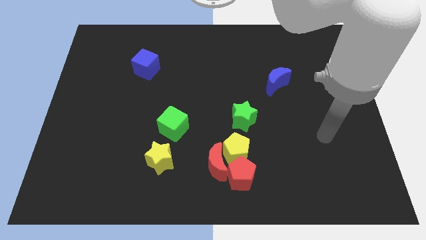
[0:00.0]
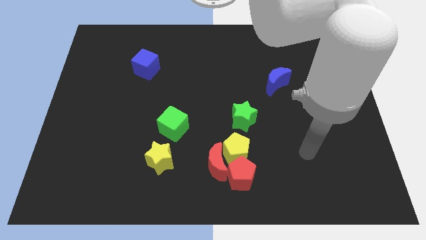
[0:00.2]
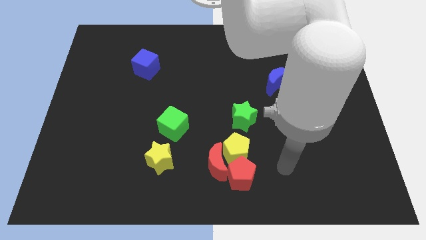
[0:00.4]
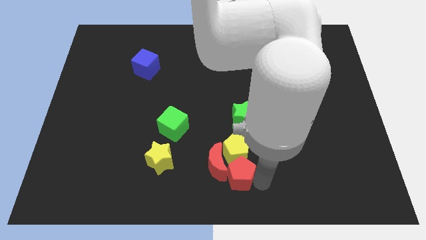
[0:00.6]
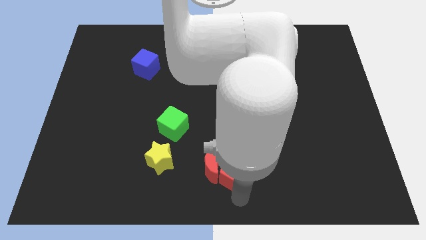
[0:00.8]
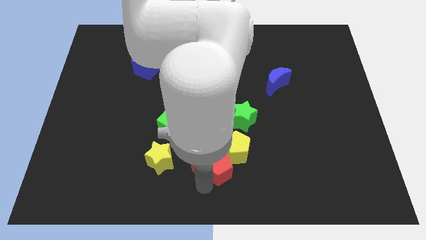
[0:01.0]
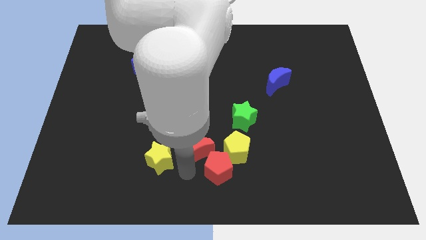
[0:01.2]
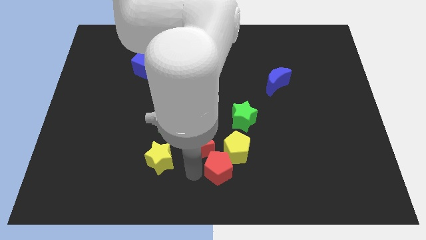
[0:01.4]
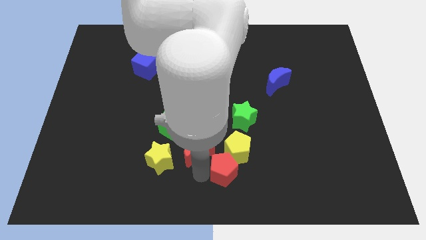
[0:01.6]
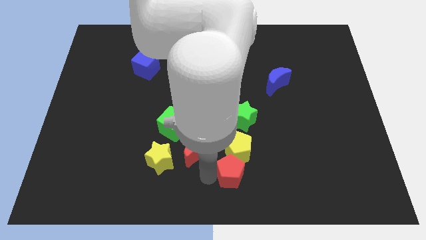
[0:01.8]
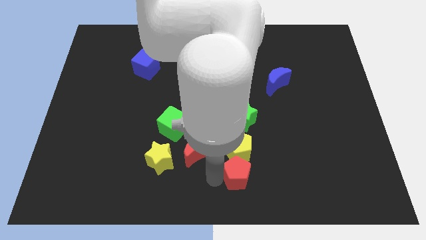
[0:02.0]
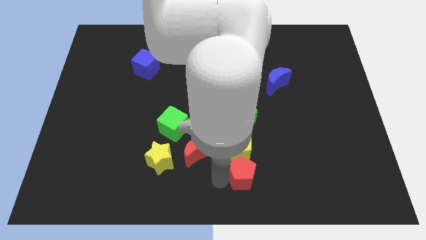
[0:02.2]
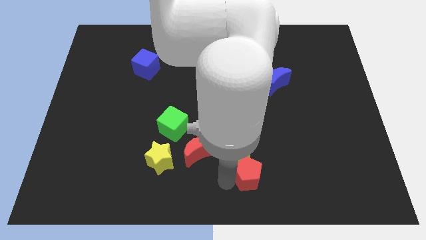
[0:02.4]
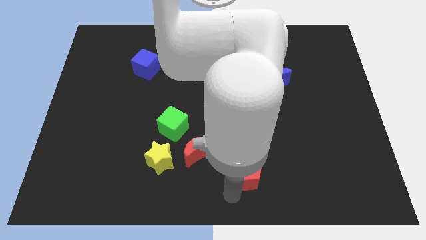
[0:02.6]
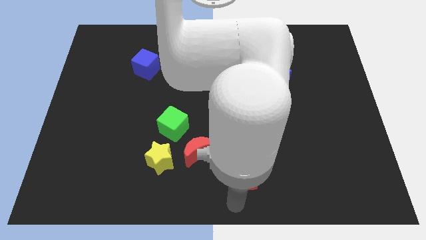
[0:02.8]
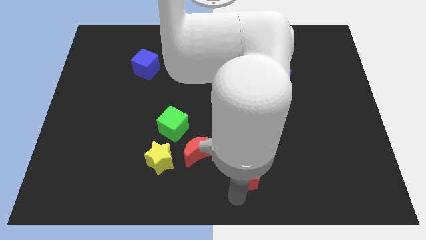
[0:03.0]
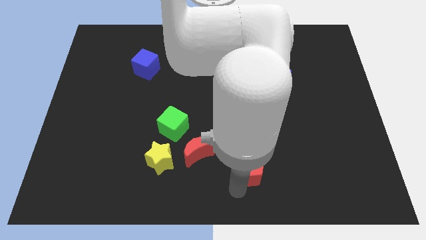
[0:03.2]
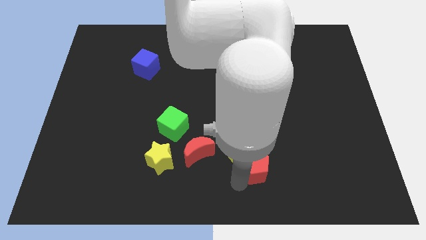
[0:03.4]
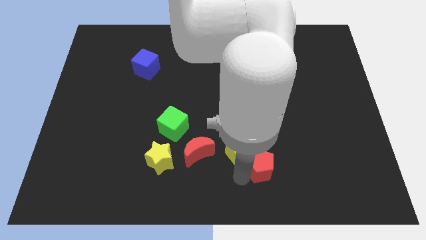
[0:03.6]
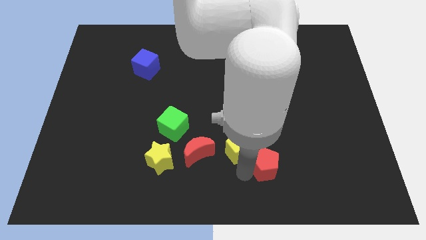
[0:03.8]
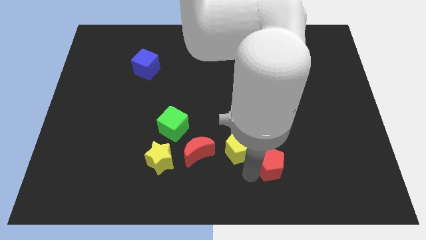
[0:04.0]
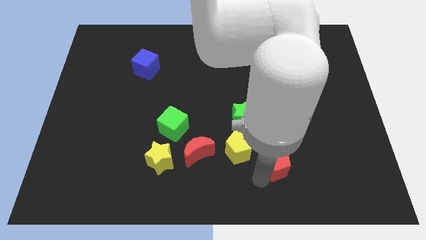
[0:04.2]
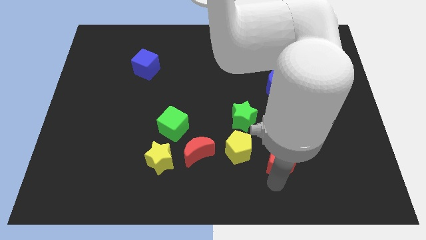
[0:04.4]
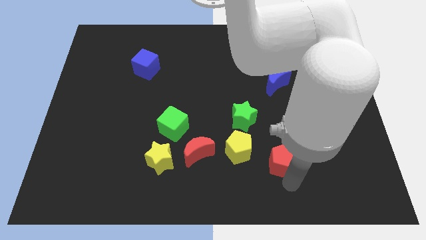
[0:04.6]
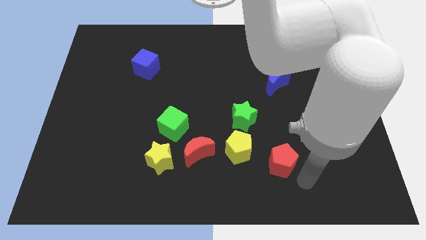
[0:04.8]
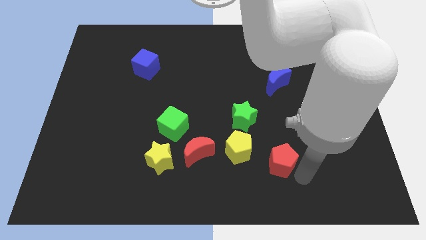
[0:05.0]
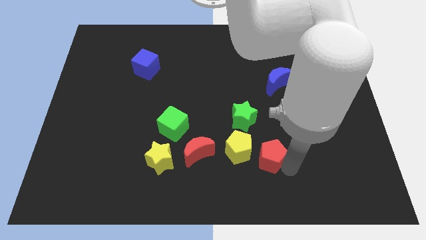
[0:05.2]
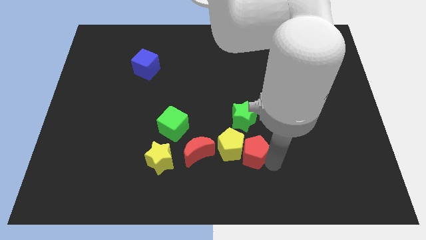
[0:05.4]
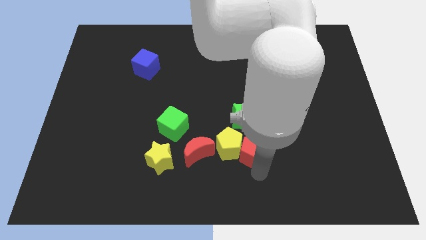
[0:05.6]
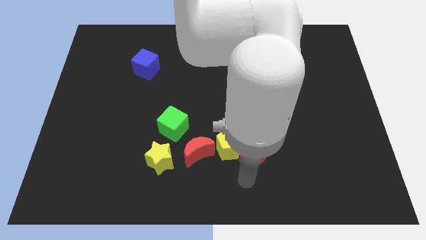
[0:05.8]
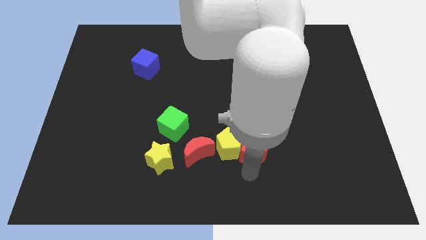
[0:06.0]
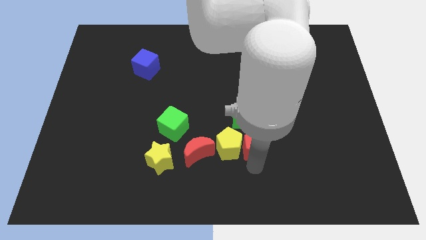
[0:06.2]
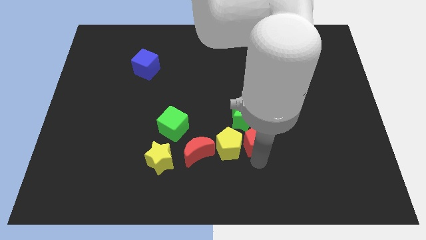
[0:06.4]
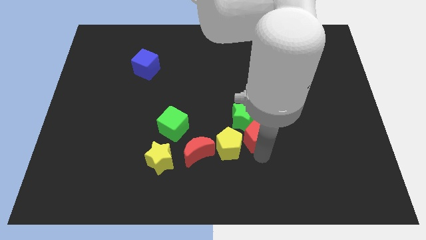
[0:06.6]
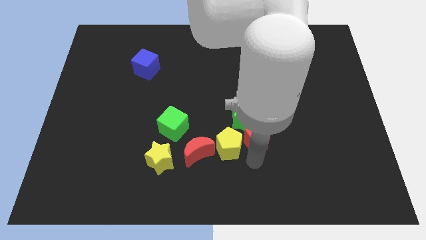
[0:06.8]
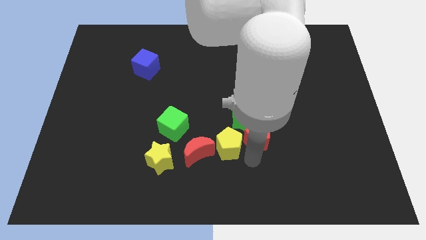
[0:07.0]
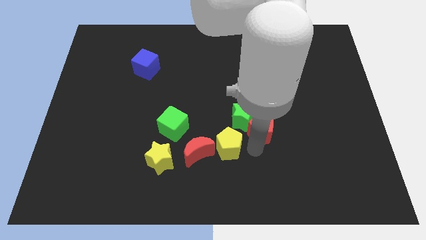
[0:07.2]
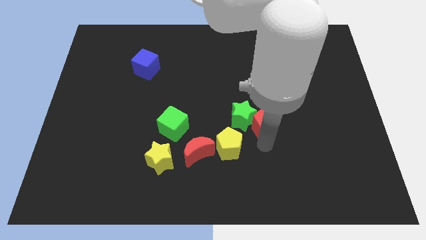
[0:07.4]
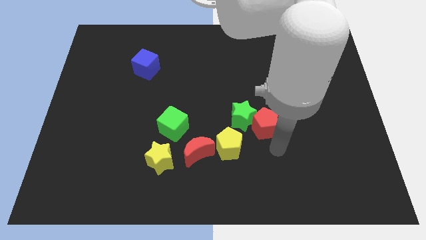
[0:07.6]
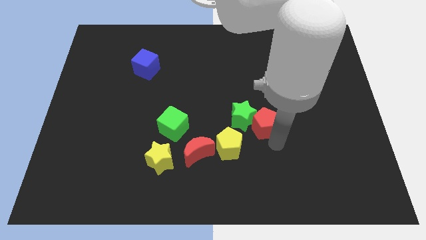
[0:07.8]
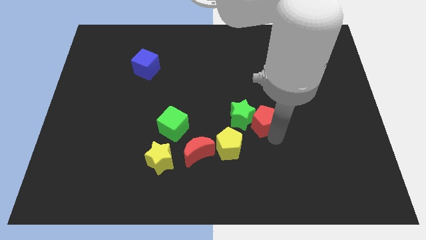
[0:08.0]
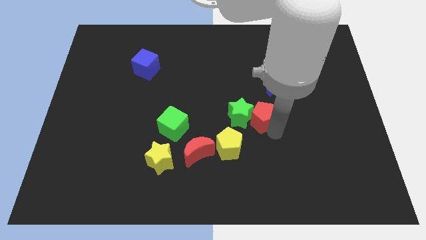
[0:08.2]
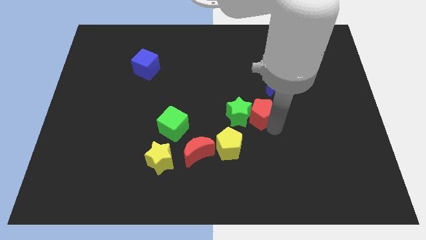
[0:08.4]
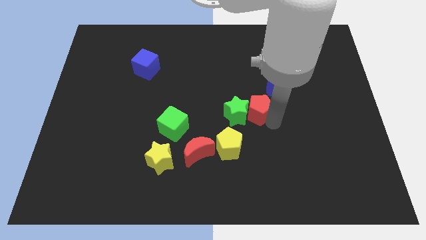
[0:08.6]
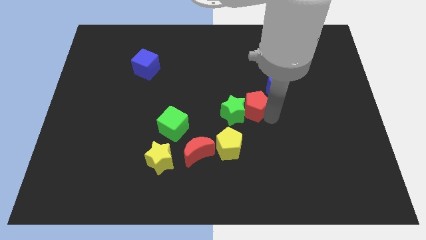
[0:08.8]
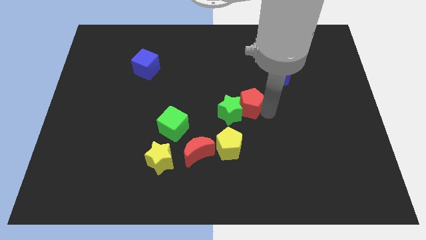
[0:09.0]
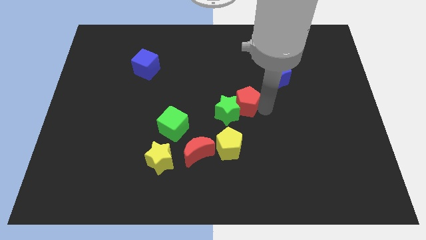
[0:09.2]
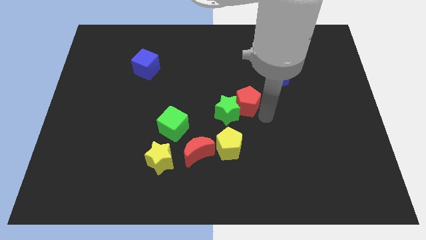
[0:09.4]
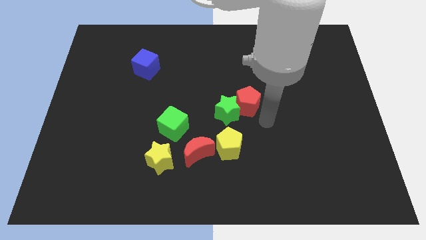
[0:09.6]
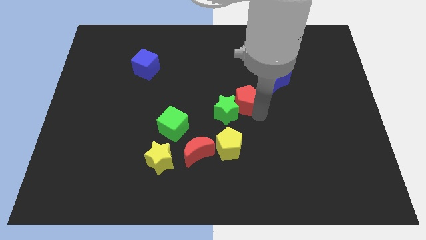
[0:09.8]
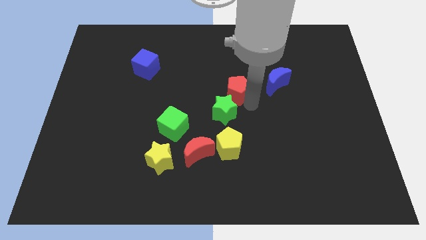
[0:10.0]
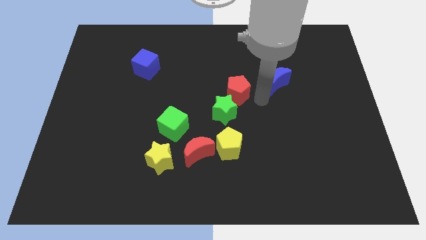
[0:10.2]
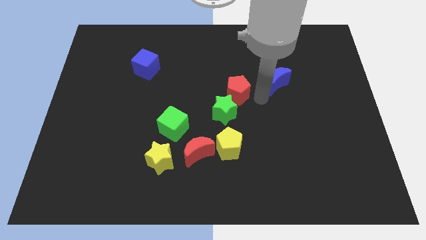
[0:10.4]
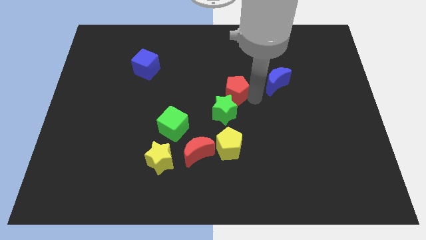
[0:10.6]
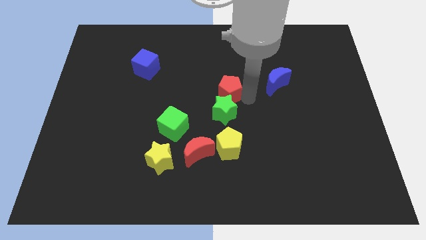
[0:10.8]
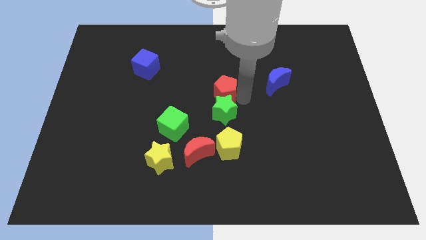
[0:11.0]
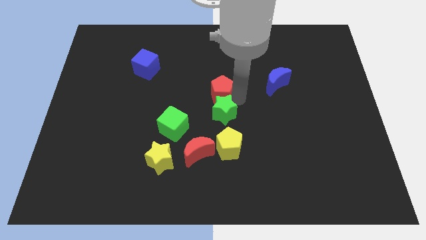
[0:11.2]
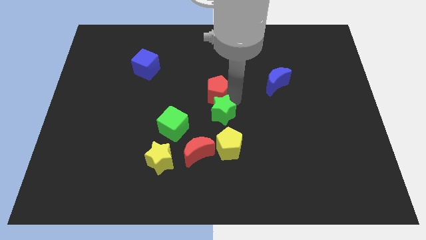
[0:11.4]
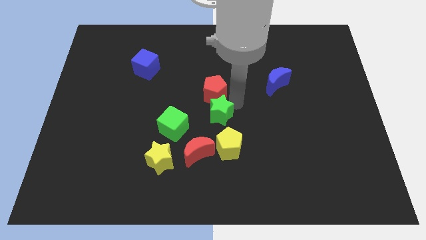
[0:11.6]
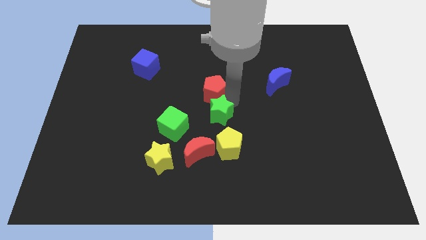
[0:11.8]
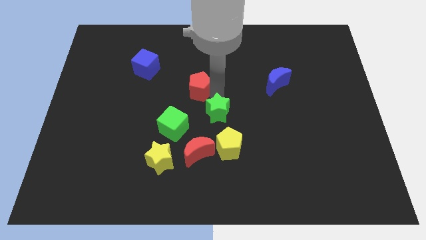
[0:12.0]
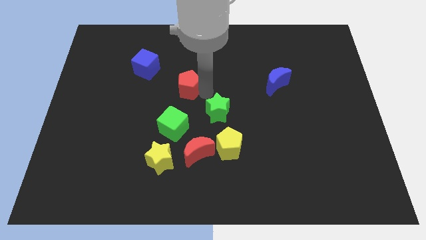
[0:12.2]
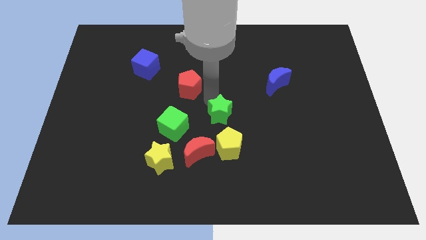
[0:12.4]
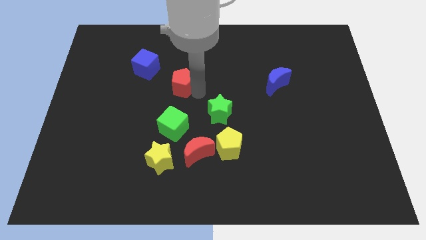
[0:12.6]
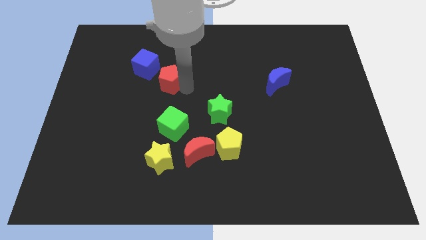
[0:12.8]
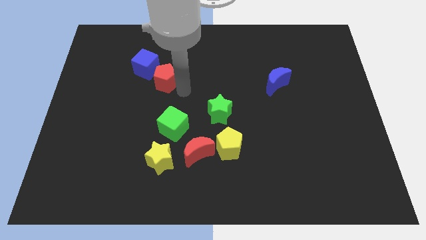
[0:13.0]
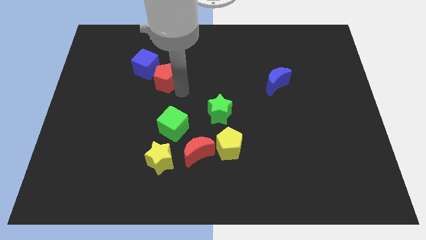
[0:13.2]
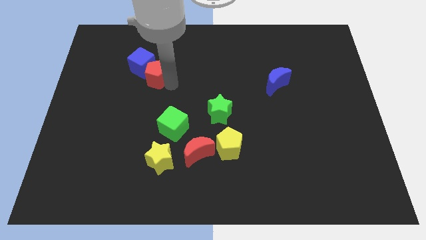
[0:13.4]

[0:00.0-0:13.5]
slide the red pentagon towards the blue cube
